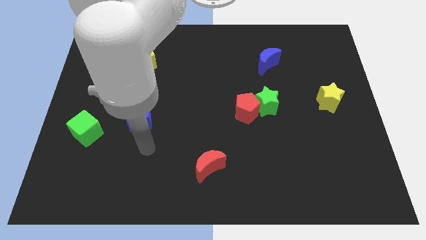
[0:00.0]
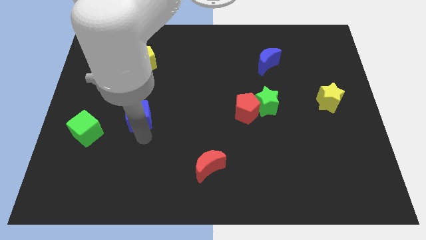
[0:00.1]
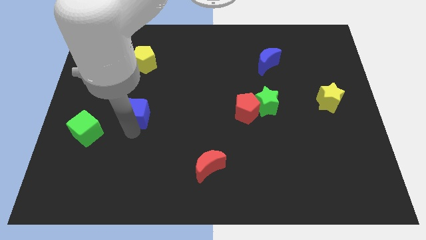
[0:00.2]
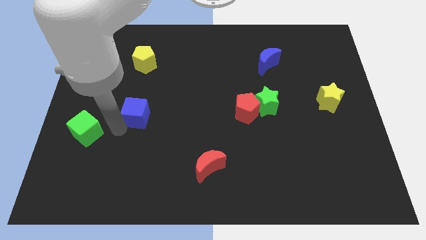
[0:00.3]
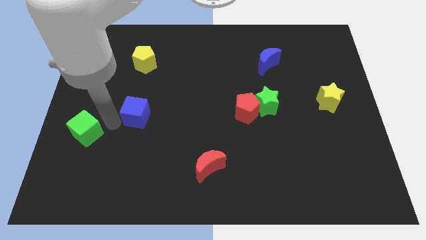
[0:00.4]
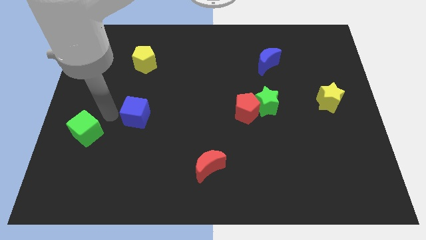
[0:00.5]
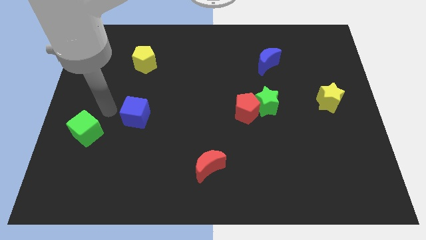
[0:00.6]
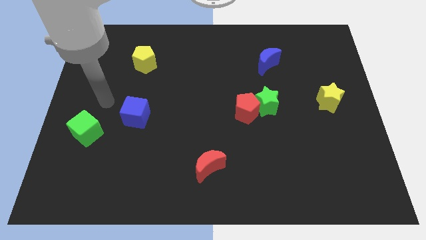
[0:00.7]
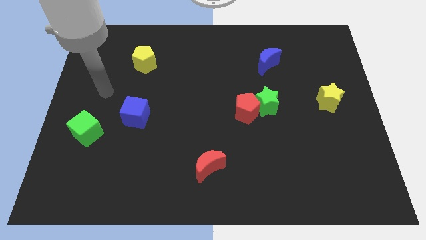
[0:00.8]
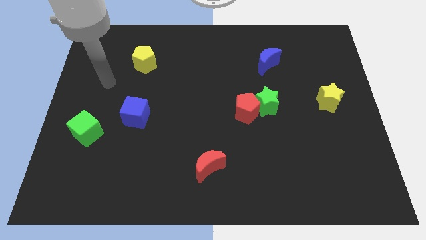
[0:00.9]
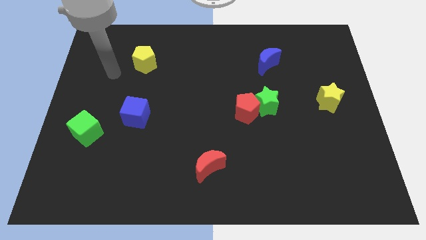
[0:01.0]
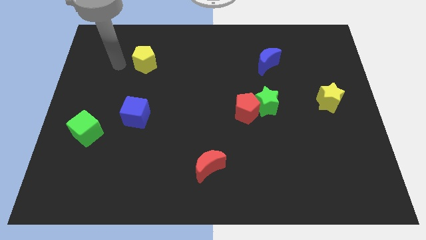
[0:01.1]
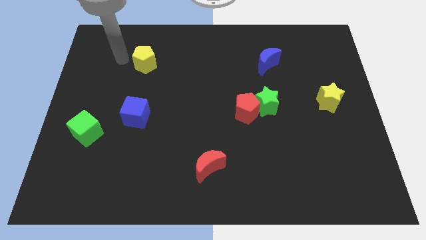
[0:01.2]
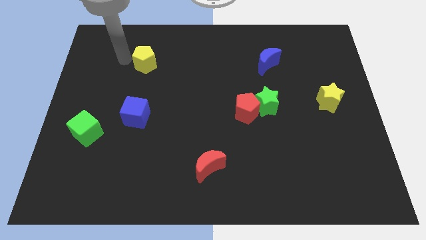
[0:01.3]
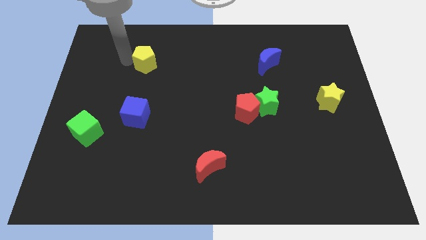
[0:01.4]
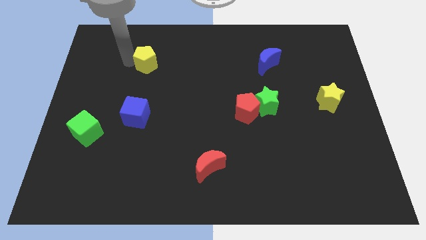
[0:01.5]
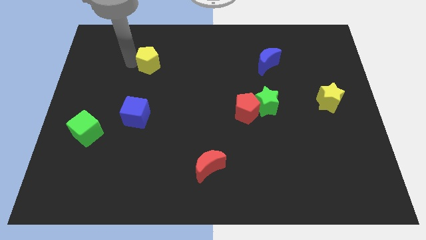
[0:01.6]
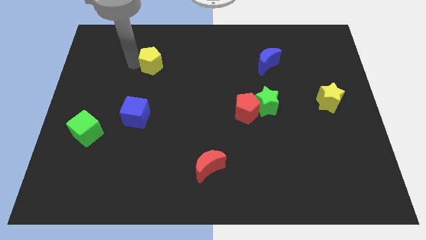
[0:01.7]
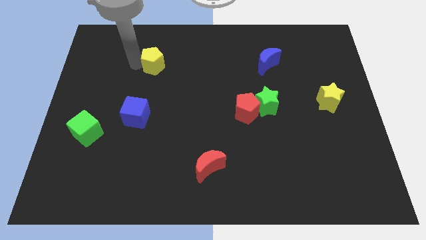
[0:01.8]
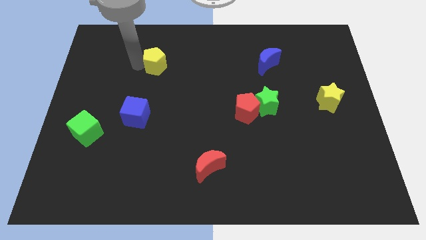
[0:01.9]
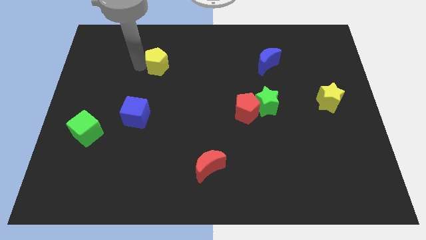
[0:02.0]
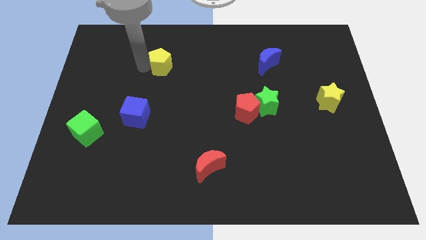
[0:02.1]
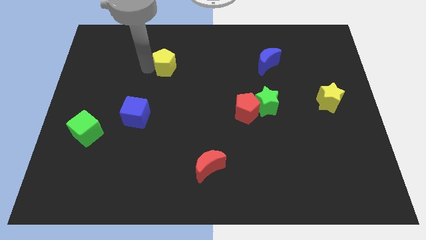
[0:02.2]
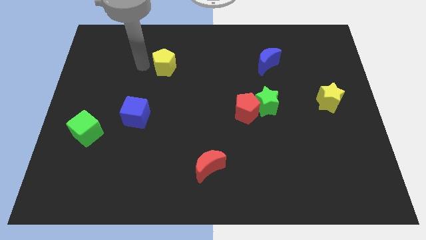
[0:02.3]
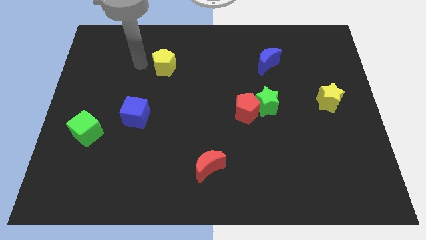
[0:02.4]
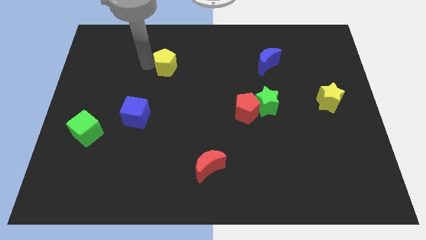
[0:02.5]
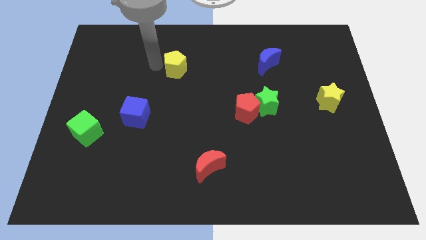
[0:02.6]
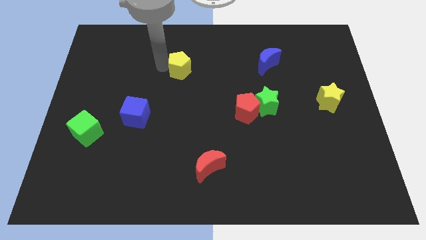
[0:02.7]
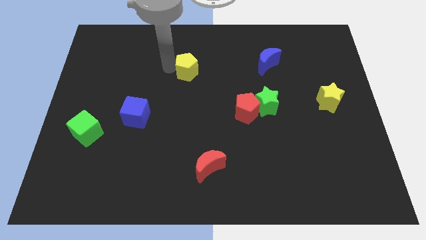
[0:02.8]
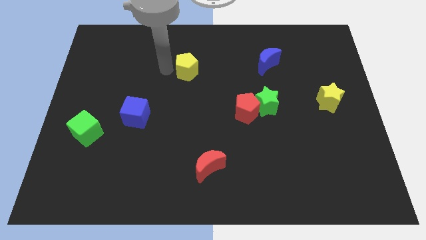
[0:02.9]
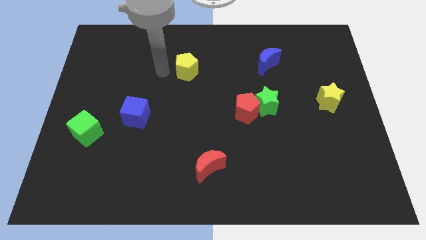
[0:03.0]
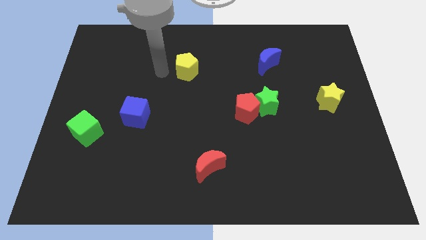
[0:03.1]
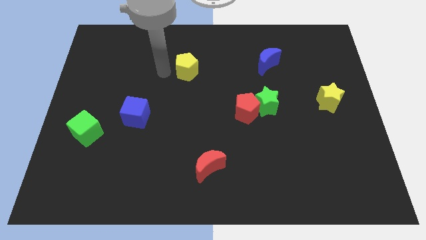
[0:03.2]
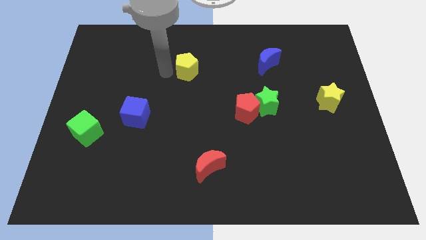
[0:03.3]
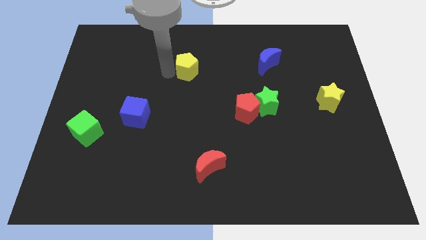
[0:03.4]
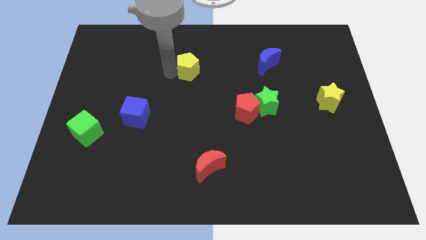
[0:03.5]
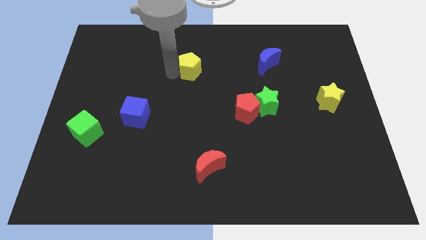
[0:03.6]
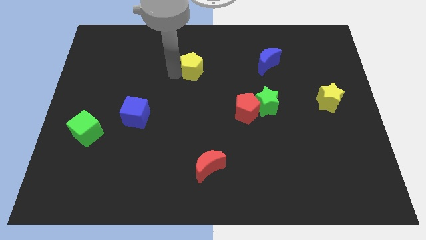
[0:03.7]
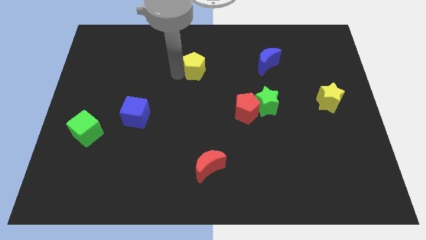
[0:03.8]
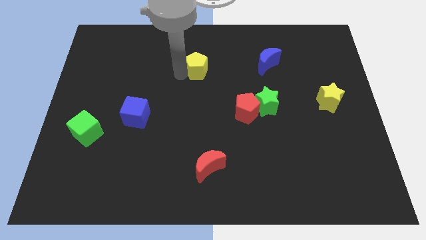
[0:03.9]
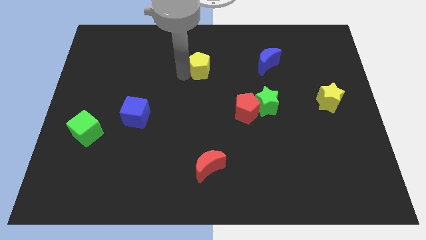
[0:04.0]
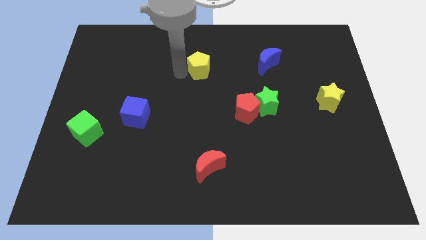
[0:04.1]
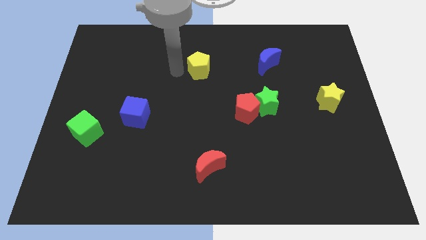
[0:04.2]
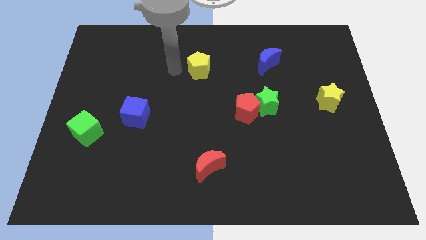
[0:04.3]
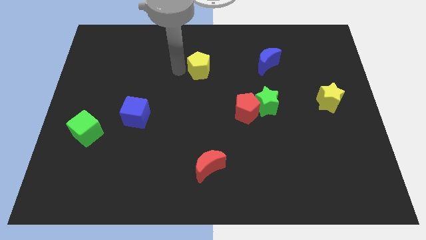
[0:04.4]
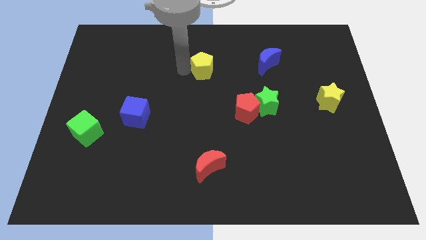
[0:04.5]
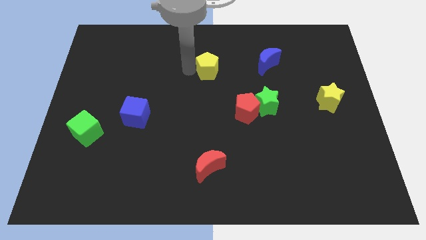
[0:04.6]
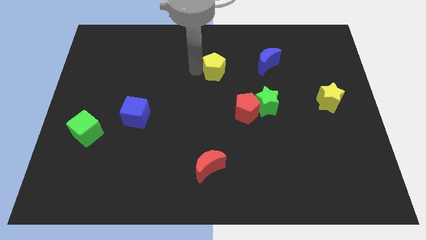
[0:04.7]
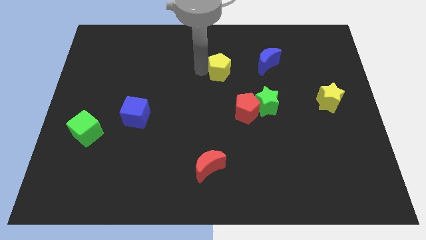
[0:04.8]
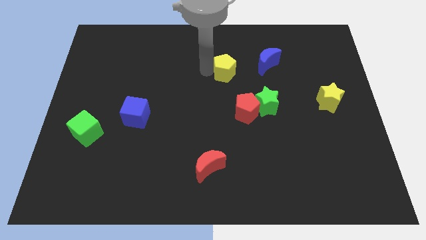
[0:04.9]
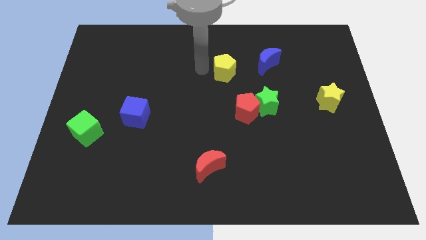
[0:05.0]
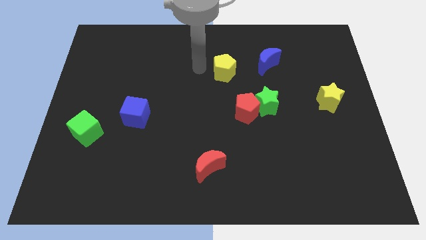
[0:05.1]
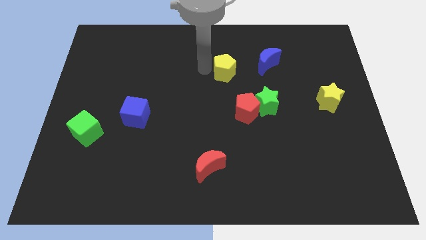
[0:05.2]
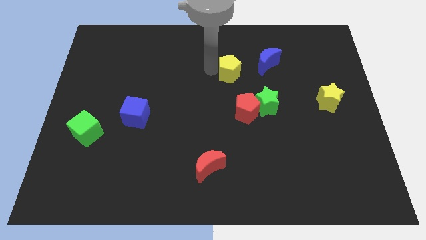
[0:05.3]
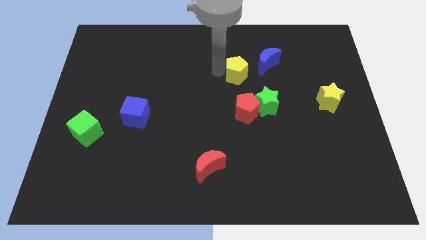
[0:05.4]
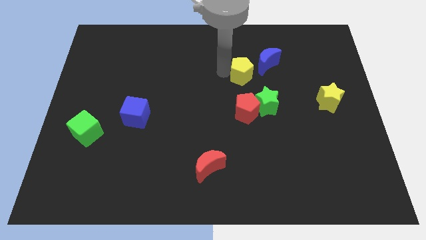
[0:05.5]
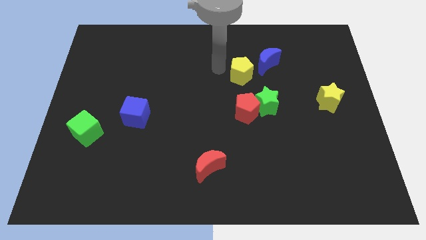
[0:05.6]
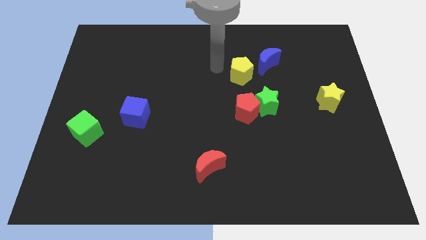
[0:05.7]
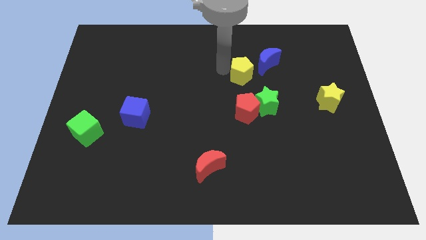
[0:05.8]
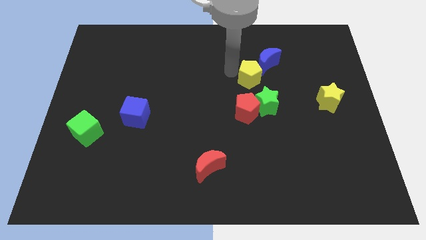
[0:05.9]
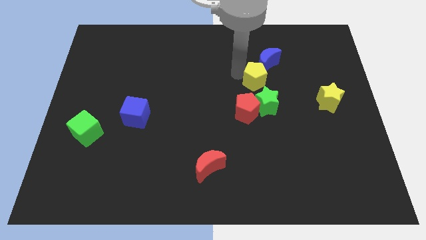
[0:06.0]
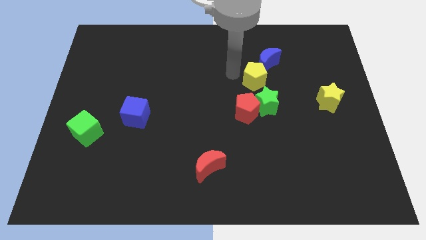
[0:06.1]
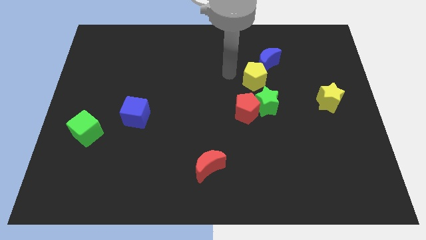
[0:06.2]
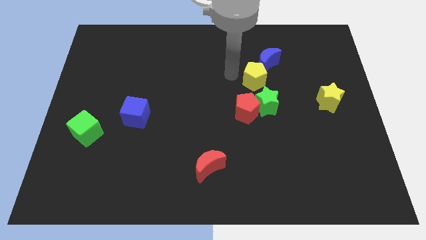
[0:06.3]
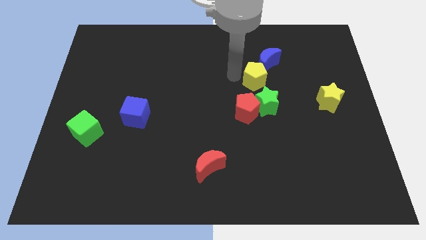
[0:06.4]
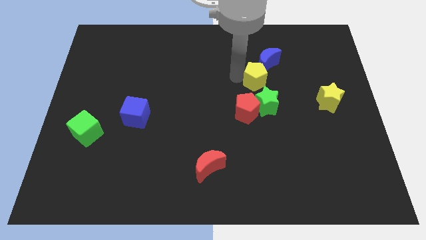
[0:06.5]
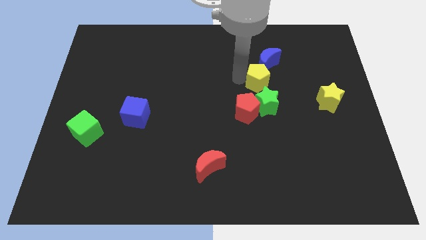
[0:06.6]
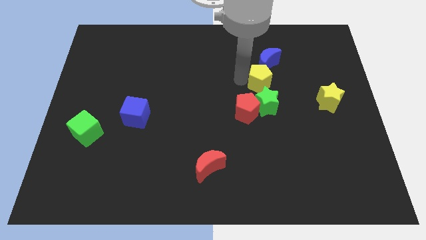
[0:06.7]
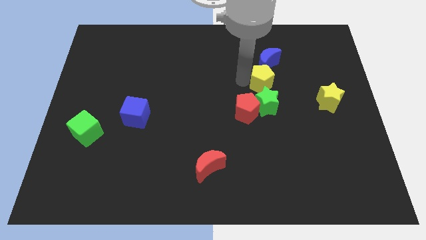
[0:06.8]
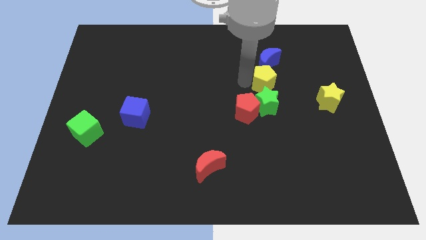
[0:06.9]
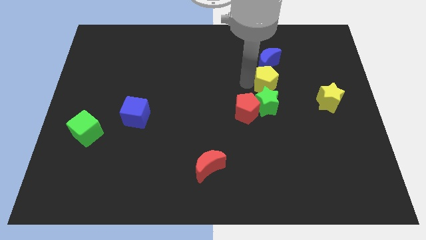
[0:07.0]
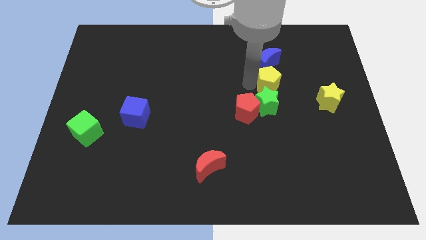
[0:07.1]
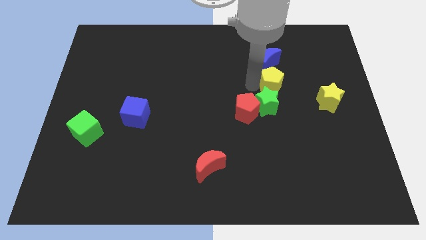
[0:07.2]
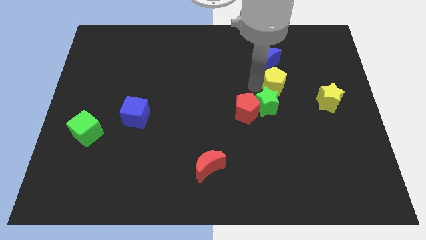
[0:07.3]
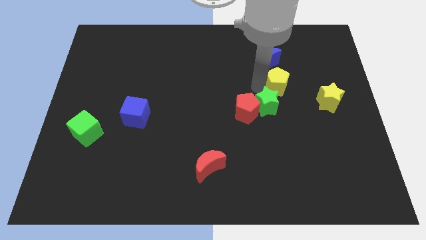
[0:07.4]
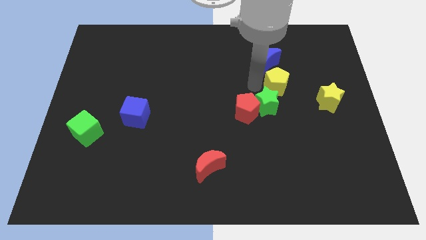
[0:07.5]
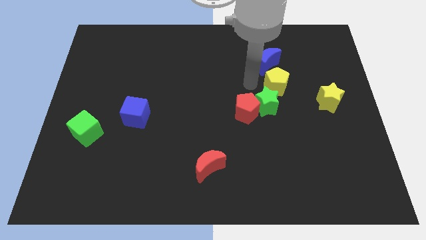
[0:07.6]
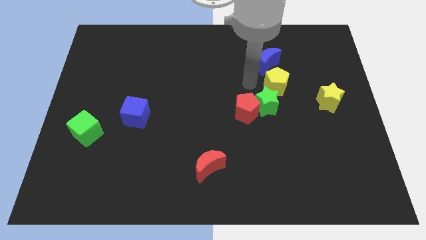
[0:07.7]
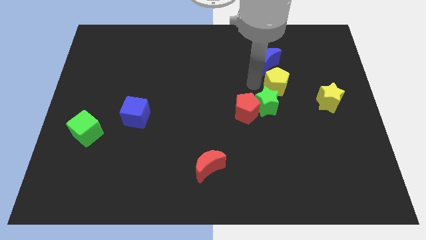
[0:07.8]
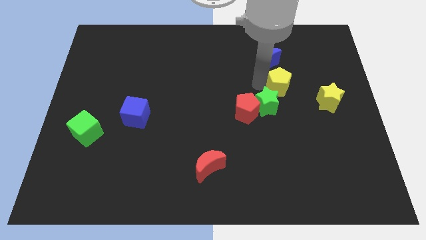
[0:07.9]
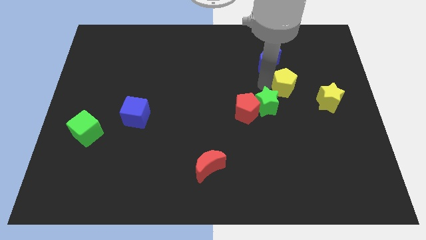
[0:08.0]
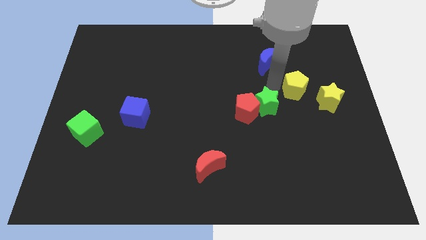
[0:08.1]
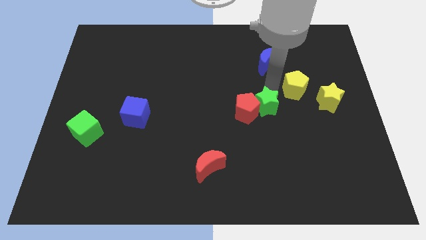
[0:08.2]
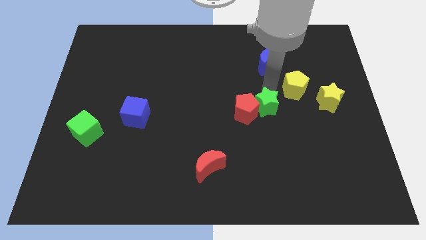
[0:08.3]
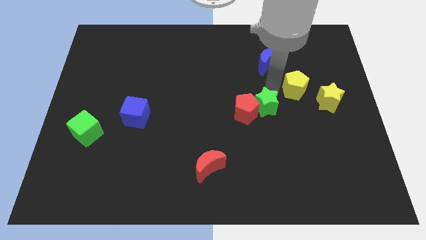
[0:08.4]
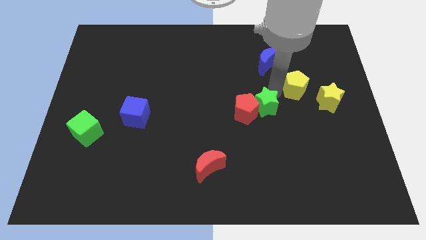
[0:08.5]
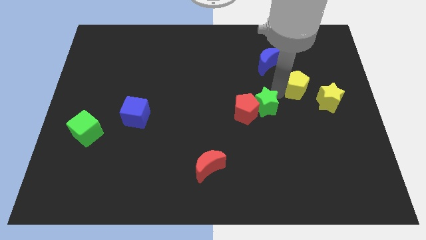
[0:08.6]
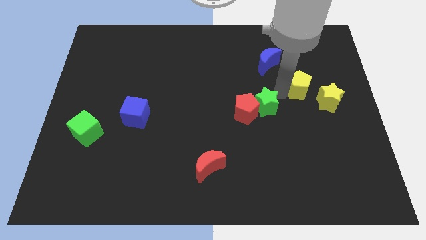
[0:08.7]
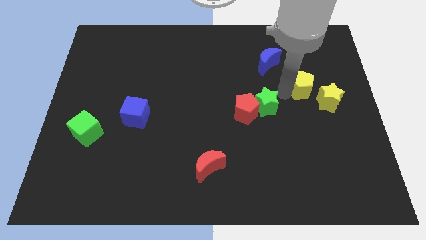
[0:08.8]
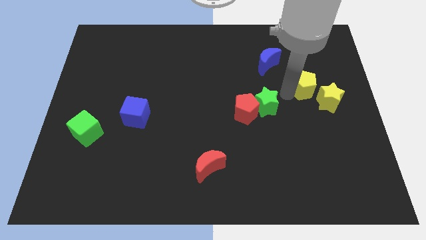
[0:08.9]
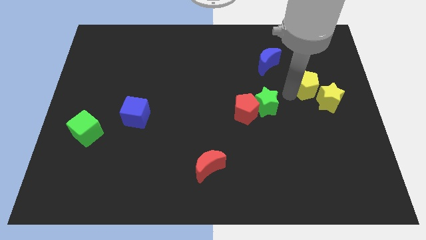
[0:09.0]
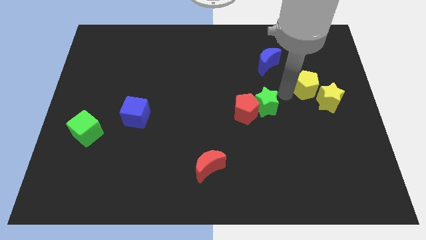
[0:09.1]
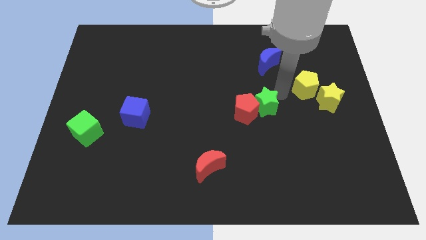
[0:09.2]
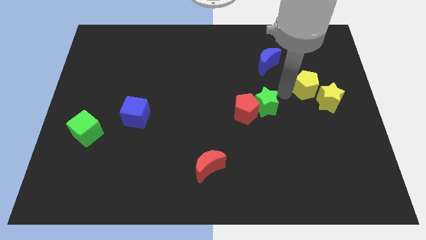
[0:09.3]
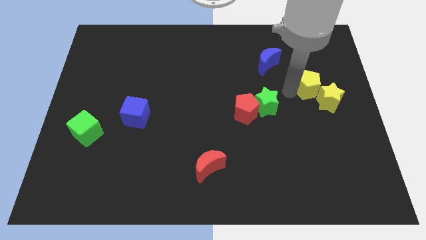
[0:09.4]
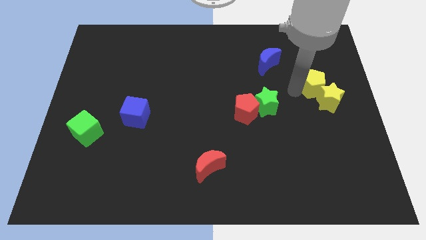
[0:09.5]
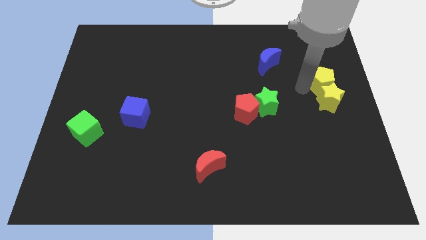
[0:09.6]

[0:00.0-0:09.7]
move the yellow pentagon to the right side
